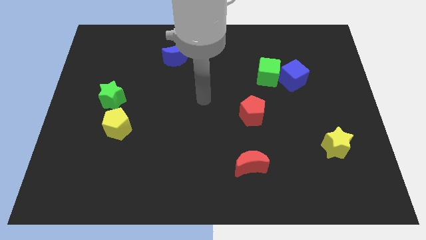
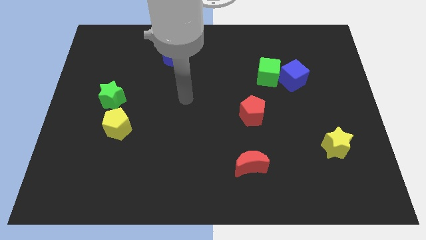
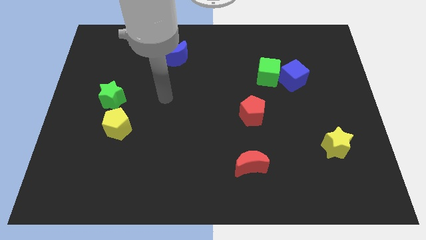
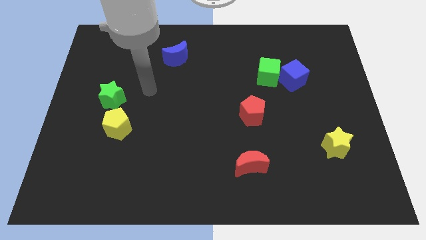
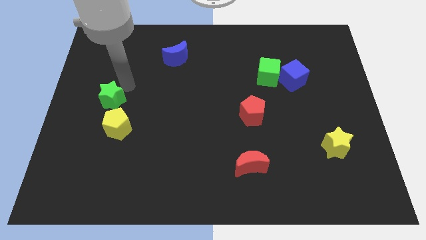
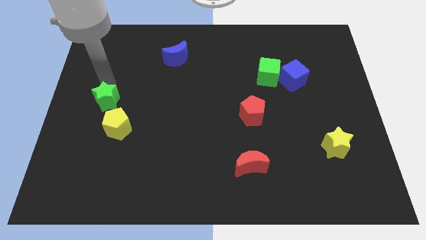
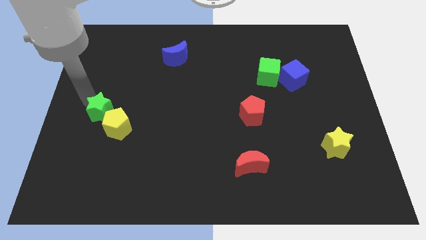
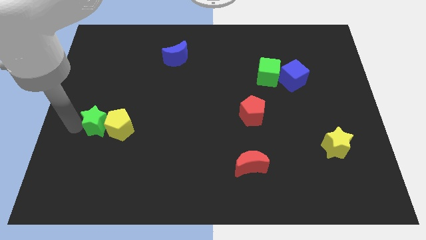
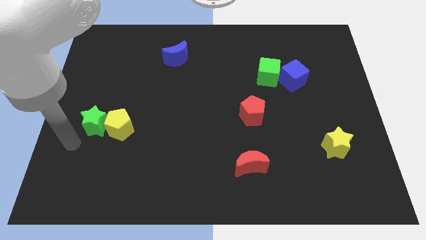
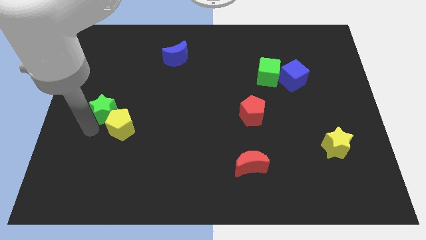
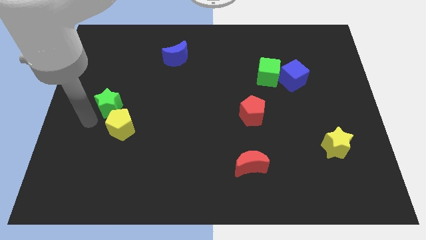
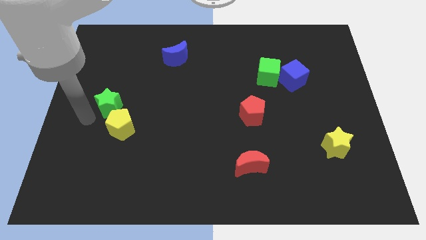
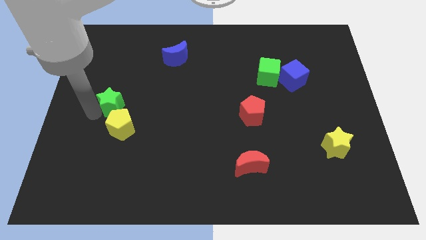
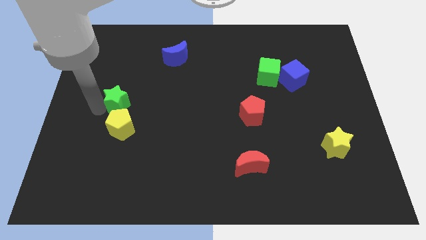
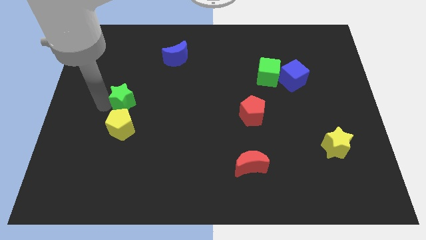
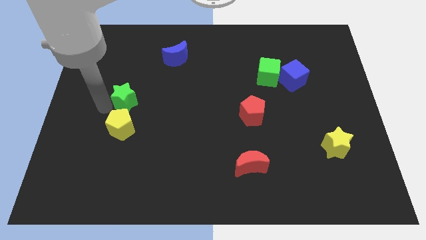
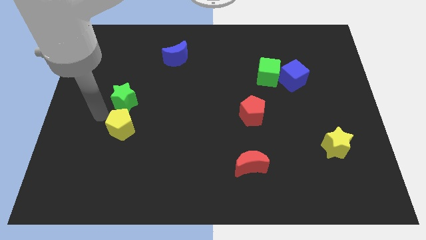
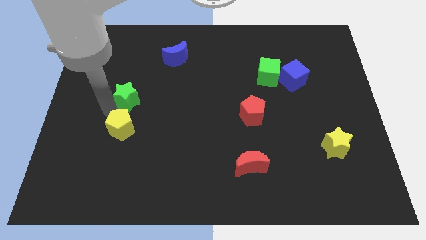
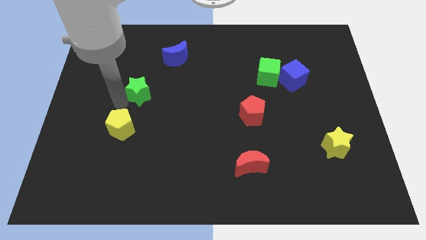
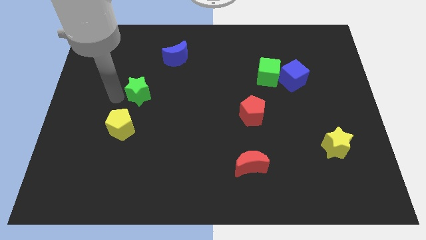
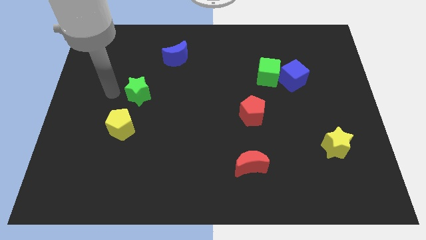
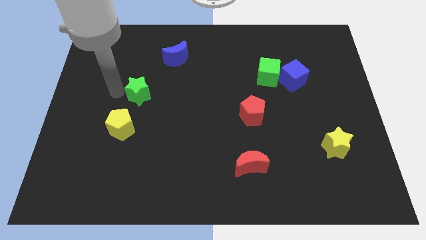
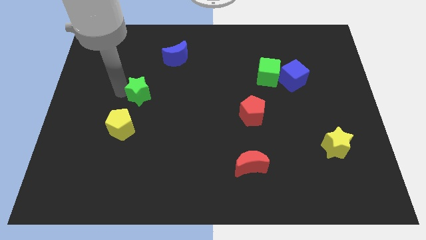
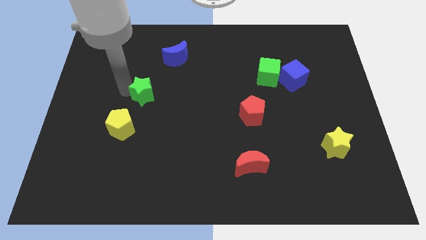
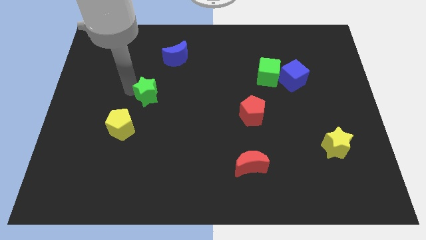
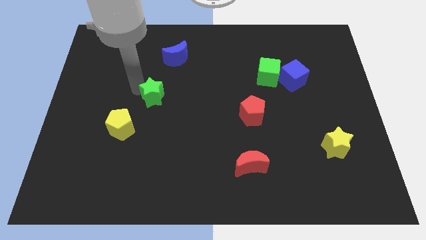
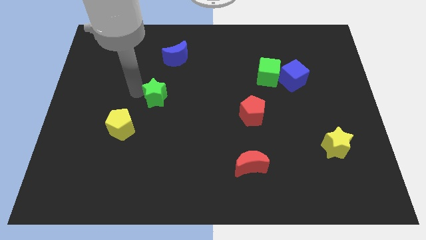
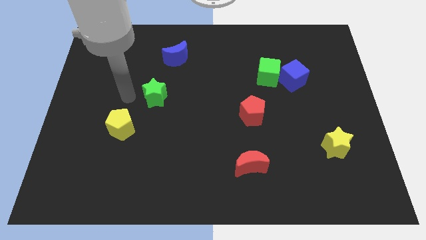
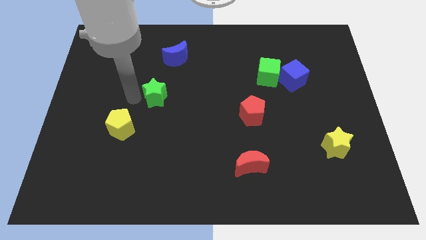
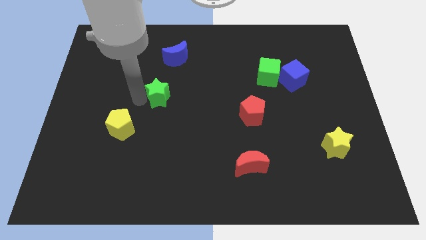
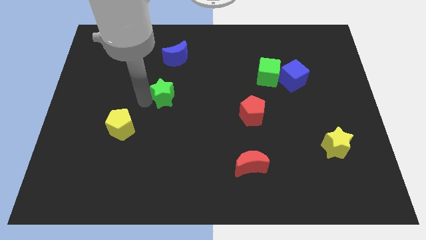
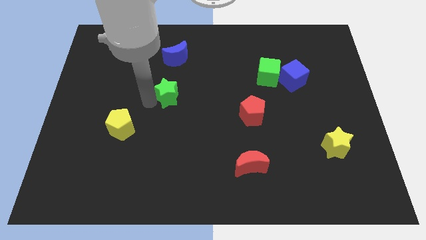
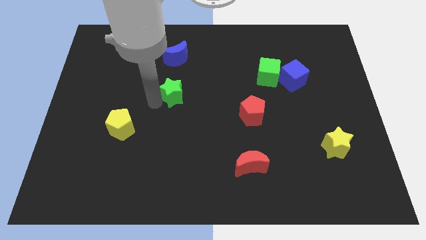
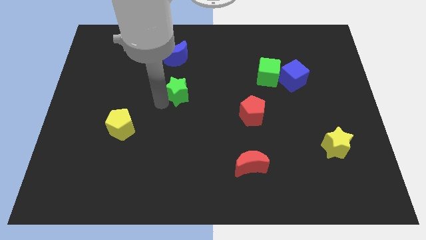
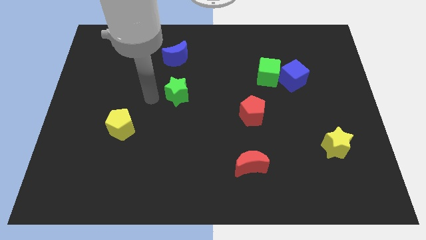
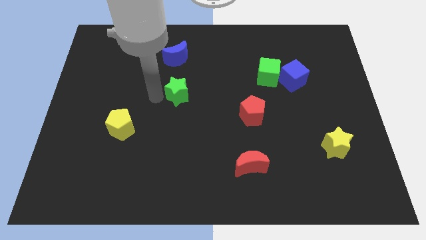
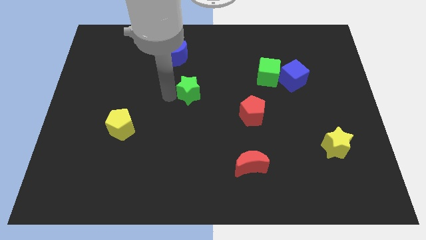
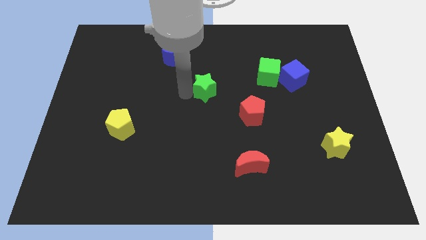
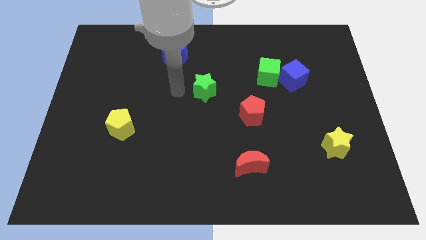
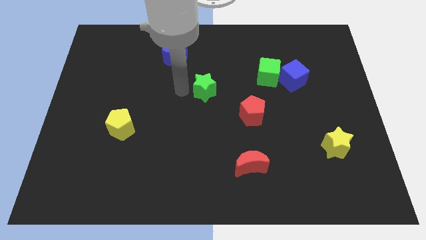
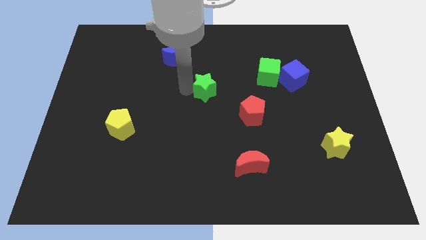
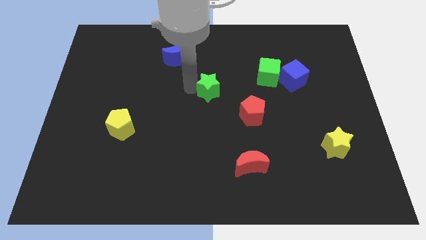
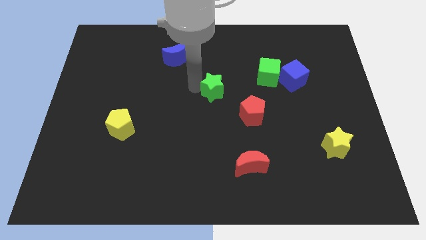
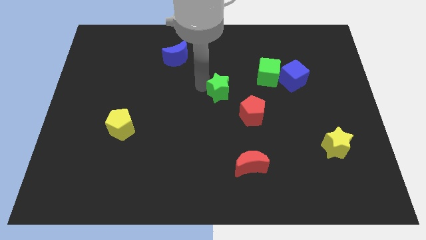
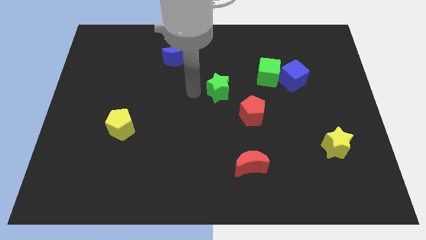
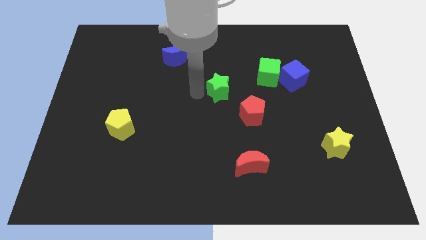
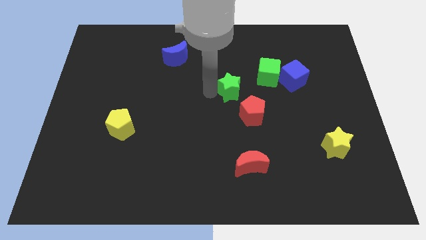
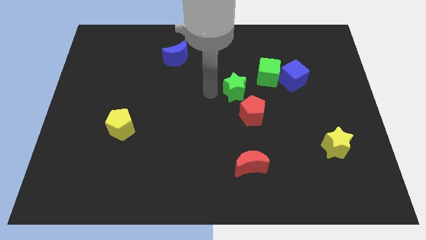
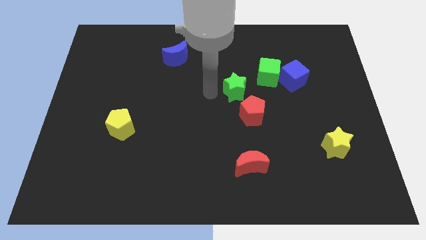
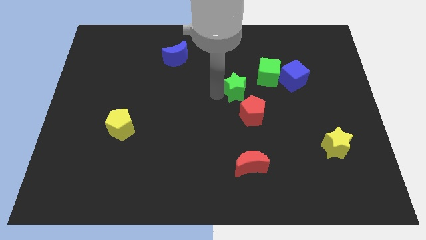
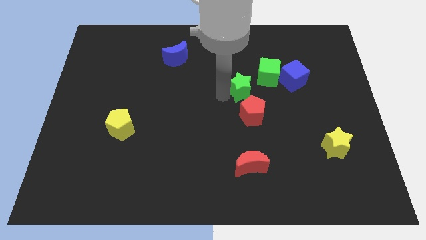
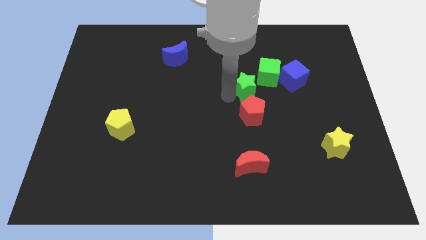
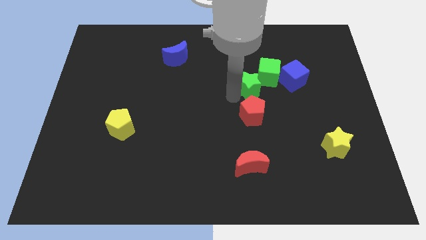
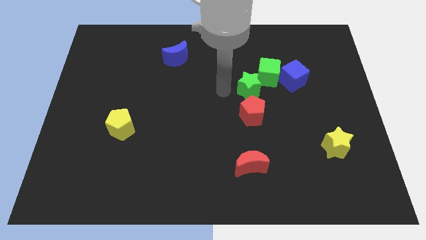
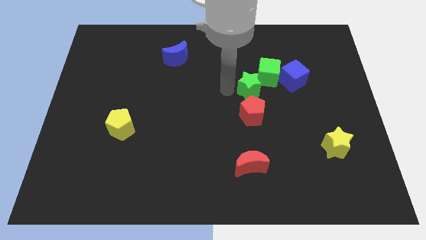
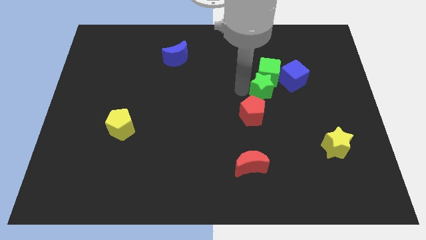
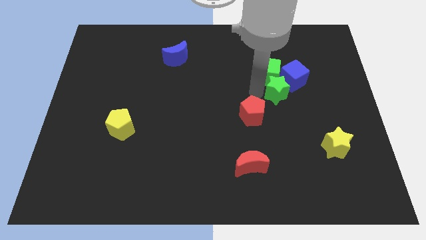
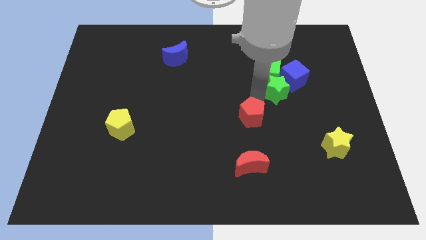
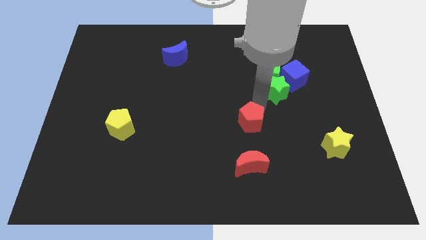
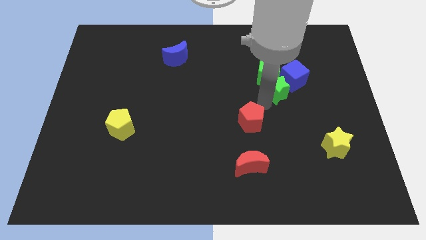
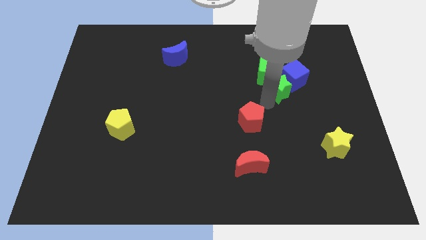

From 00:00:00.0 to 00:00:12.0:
move the green star next to the blue cube
